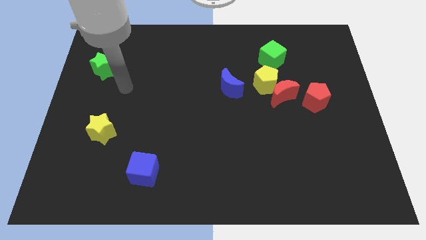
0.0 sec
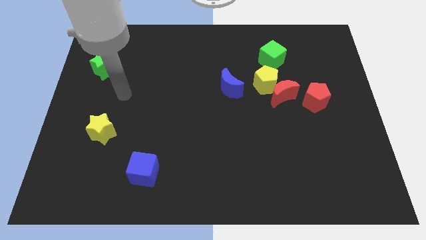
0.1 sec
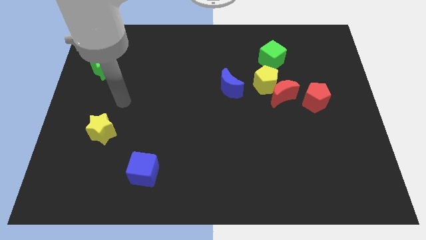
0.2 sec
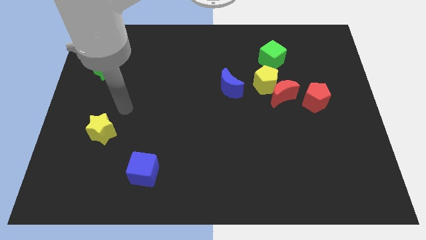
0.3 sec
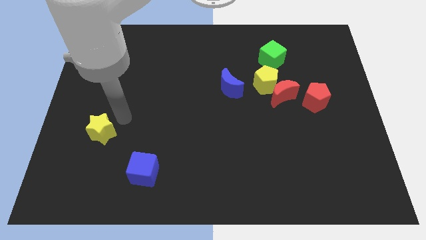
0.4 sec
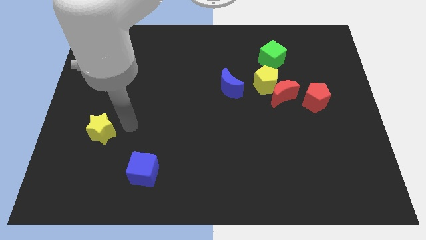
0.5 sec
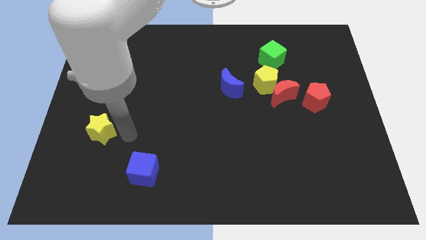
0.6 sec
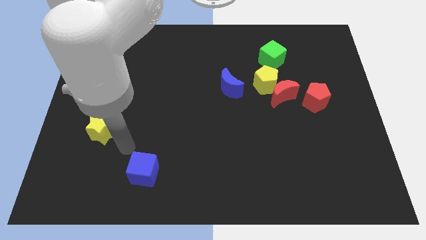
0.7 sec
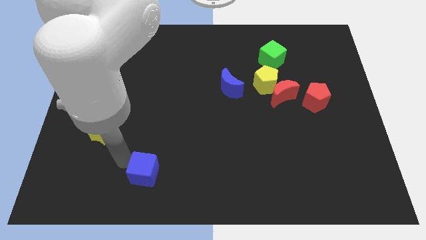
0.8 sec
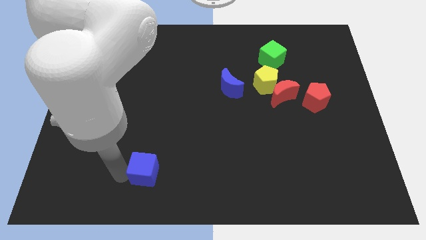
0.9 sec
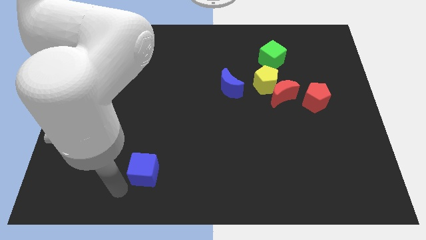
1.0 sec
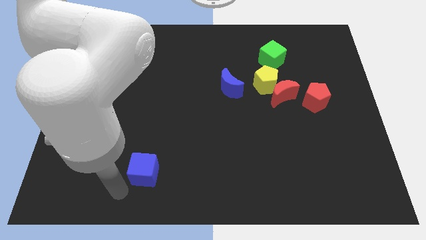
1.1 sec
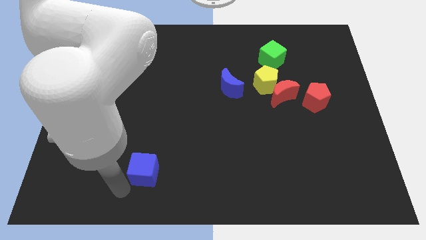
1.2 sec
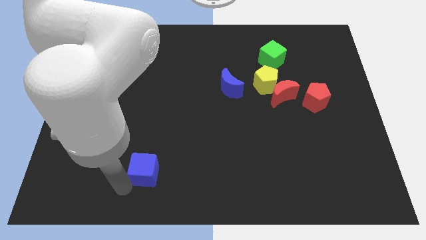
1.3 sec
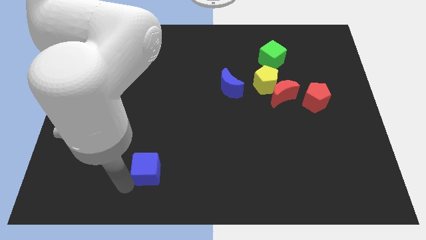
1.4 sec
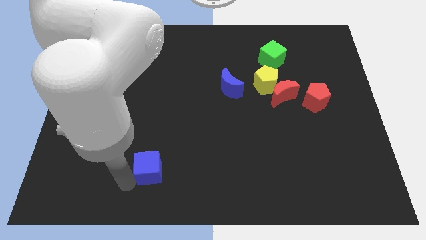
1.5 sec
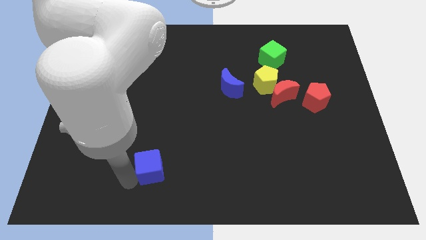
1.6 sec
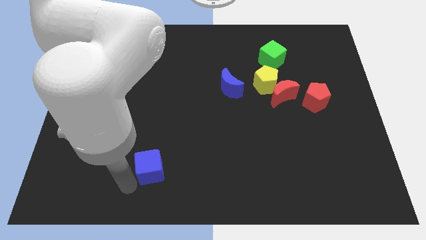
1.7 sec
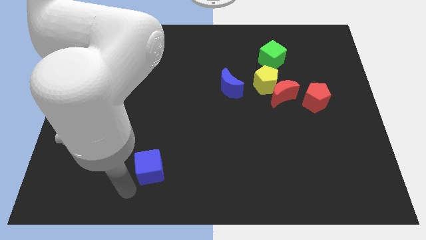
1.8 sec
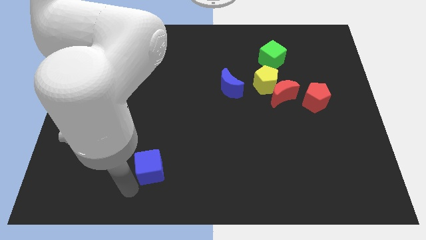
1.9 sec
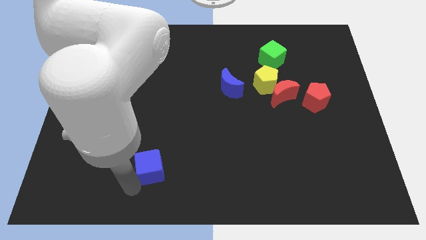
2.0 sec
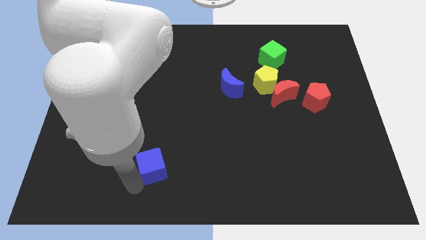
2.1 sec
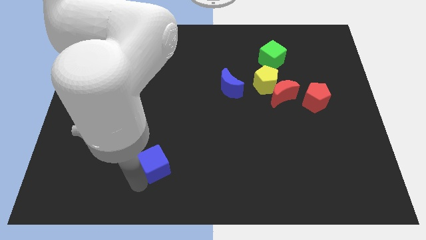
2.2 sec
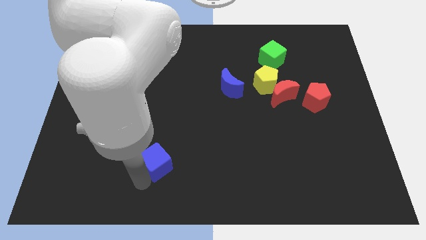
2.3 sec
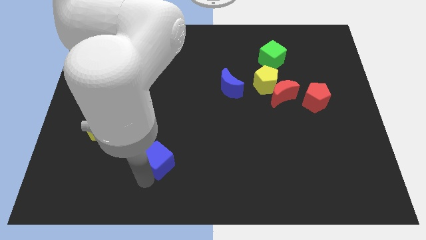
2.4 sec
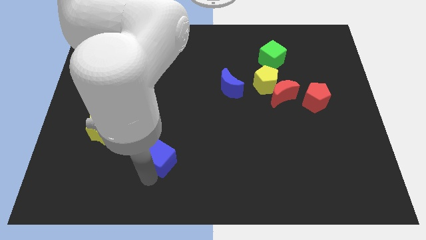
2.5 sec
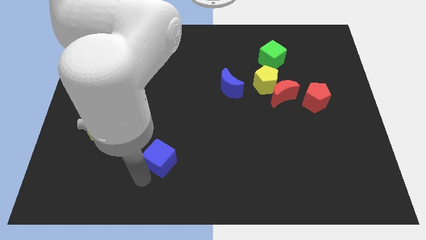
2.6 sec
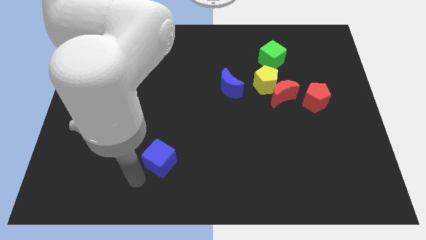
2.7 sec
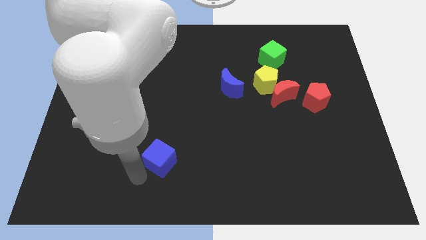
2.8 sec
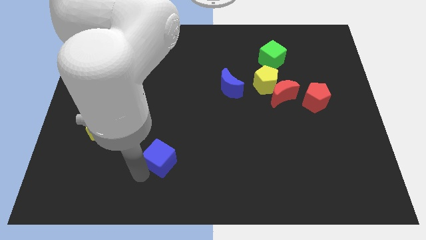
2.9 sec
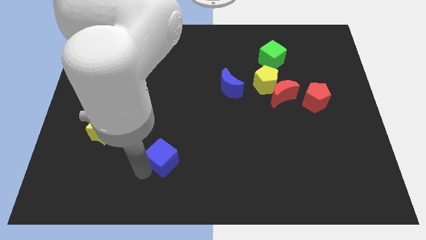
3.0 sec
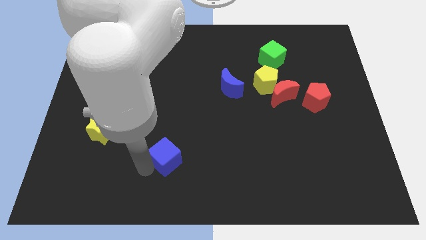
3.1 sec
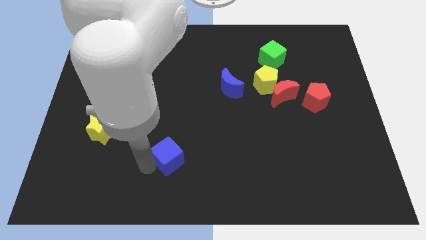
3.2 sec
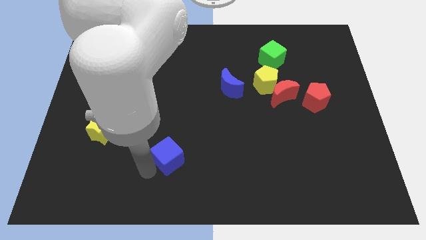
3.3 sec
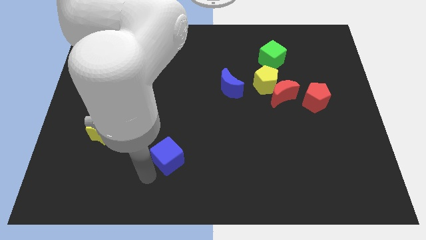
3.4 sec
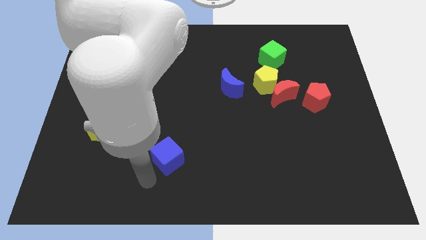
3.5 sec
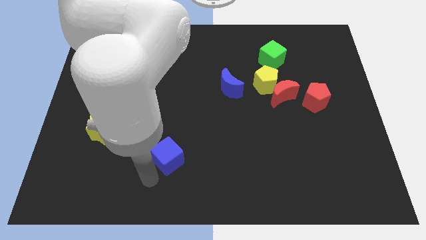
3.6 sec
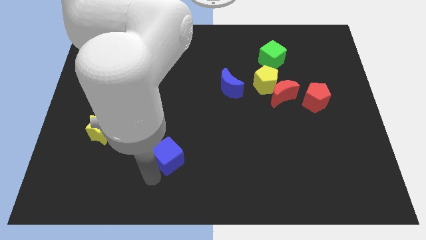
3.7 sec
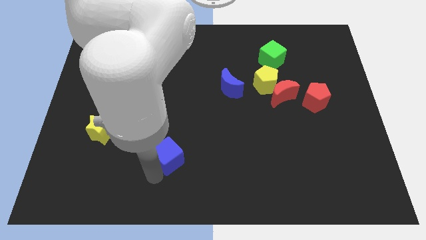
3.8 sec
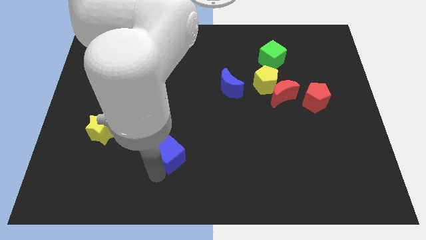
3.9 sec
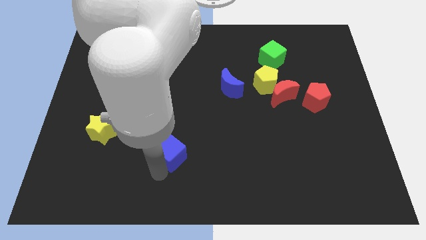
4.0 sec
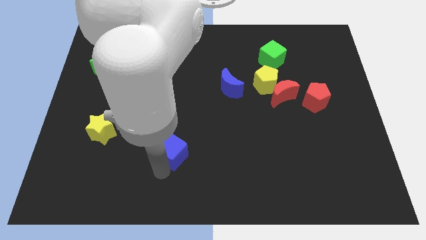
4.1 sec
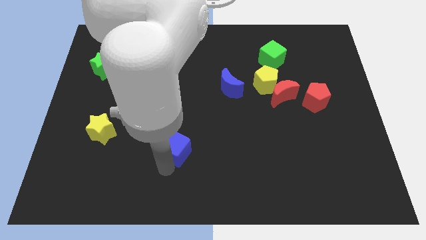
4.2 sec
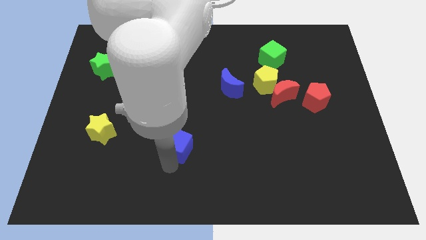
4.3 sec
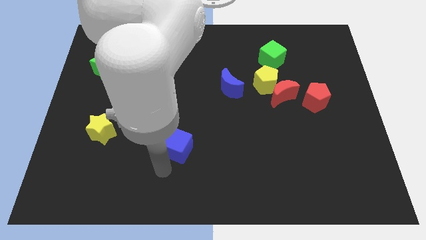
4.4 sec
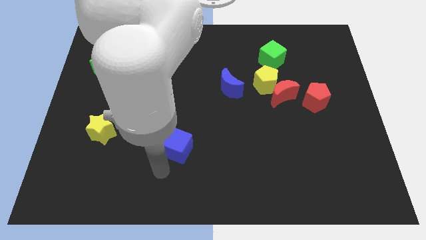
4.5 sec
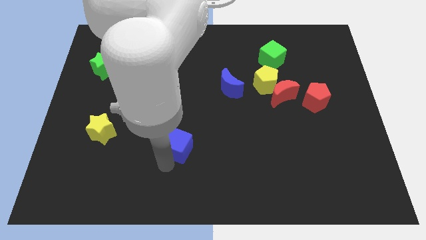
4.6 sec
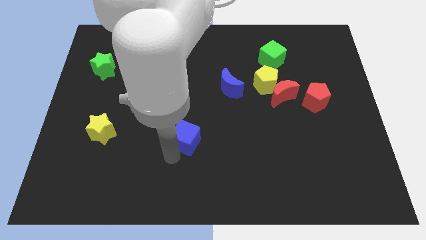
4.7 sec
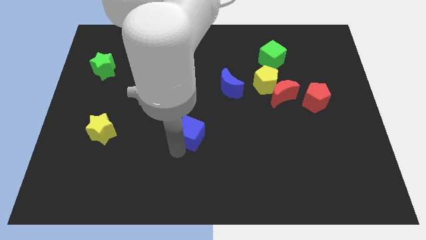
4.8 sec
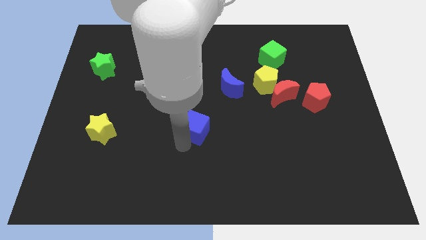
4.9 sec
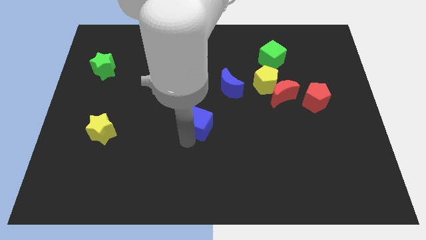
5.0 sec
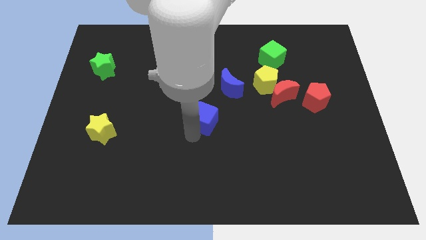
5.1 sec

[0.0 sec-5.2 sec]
move the blue cube to the bottom left of the blue moon

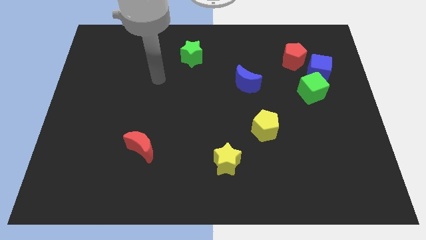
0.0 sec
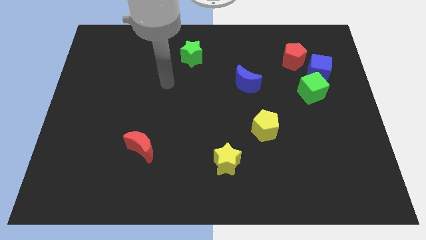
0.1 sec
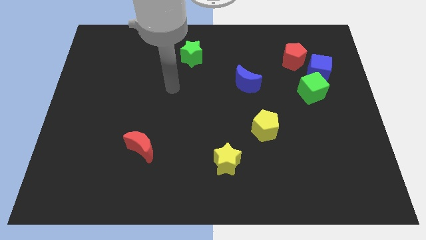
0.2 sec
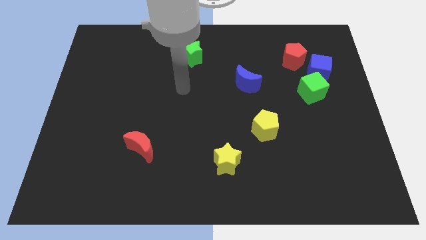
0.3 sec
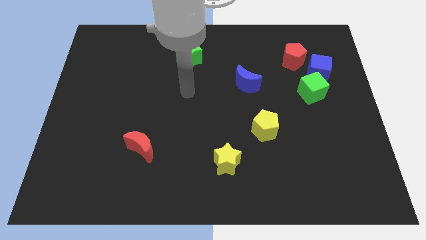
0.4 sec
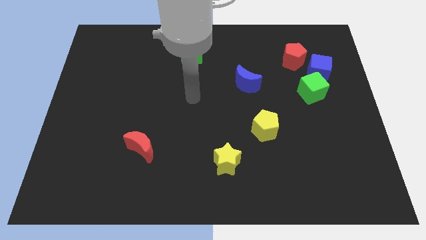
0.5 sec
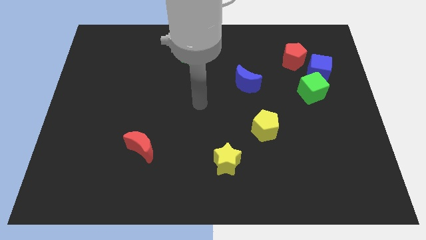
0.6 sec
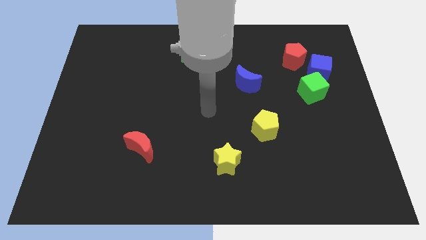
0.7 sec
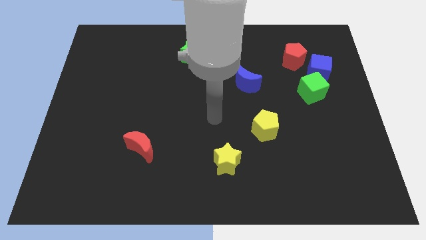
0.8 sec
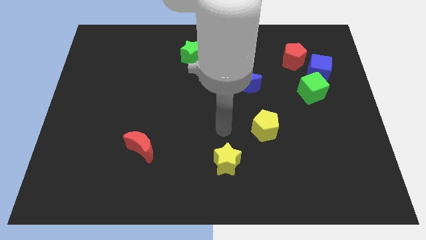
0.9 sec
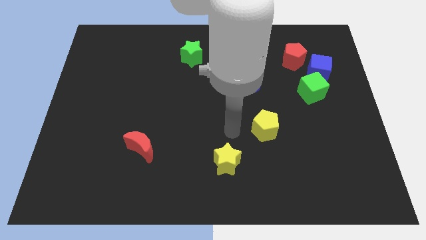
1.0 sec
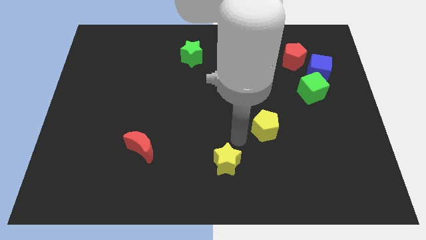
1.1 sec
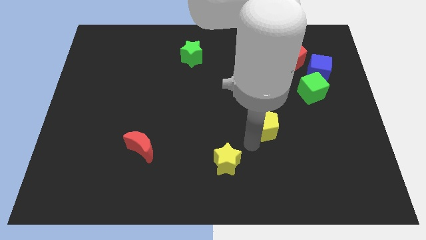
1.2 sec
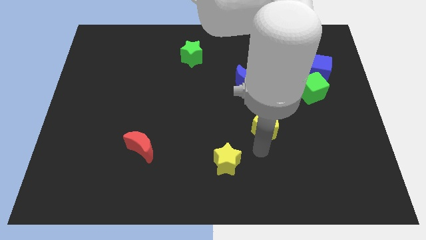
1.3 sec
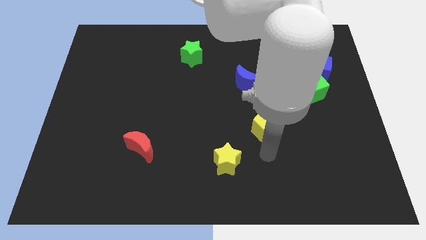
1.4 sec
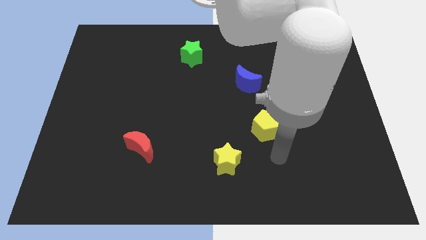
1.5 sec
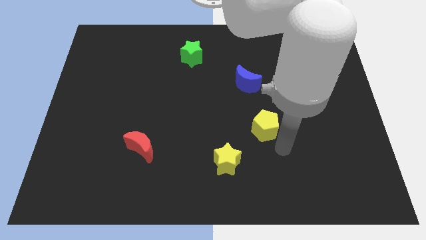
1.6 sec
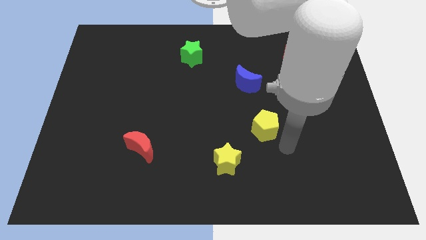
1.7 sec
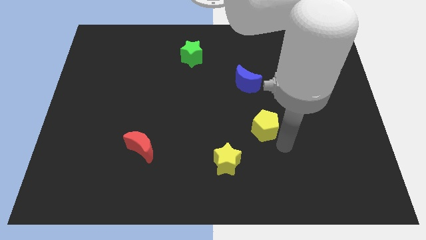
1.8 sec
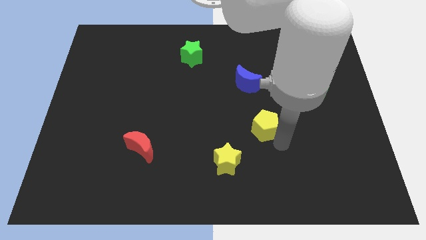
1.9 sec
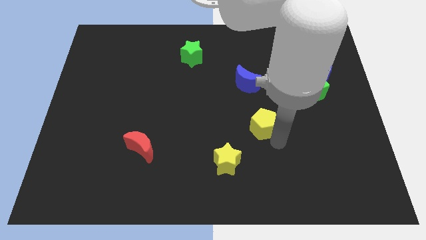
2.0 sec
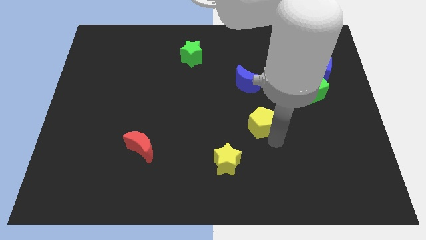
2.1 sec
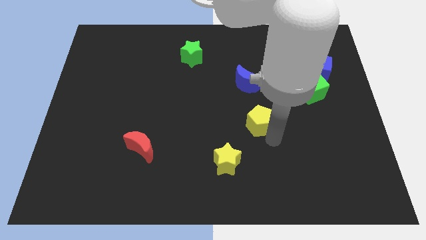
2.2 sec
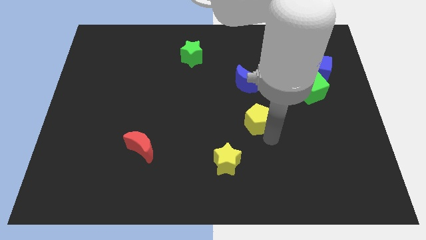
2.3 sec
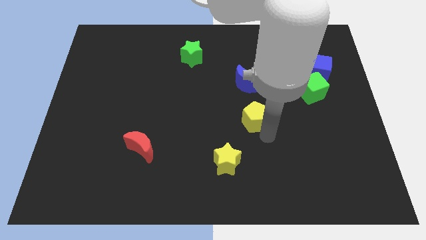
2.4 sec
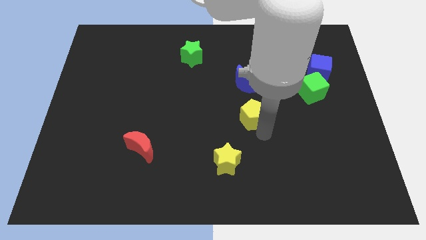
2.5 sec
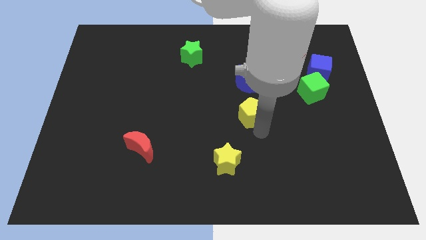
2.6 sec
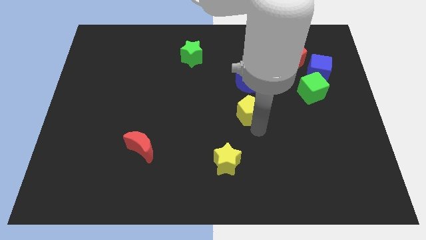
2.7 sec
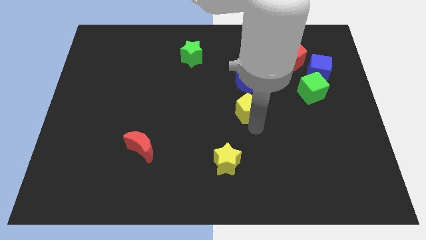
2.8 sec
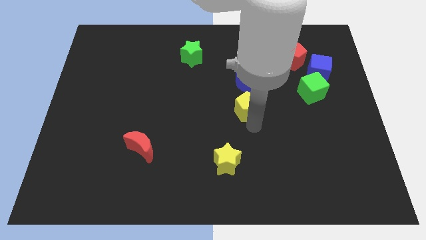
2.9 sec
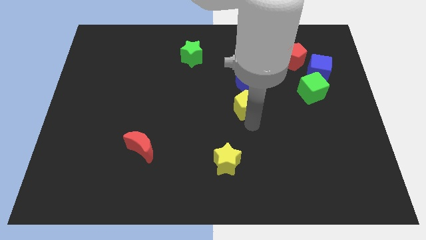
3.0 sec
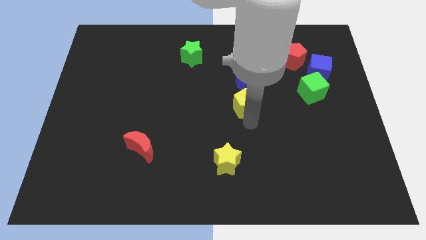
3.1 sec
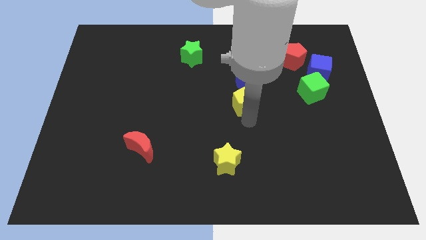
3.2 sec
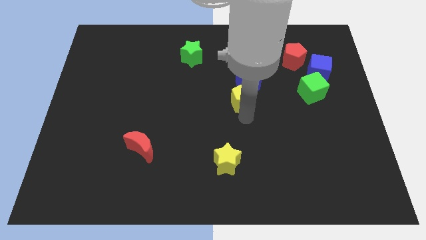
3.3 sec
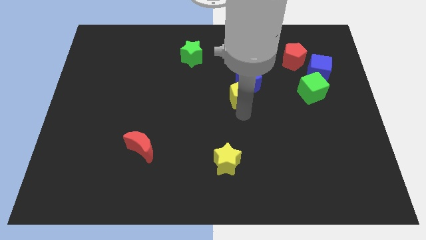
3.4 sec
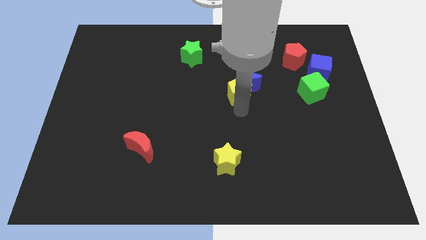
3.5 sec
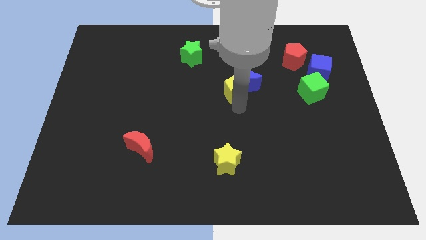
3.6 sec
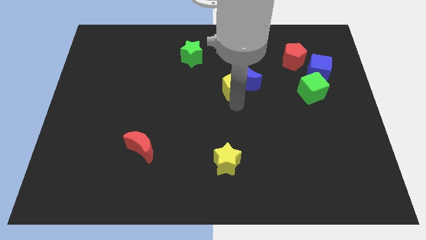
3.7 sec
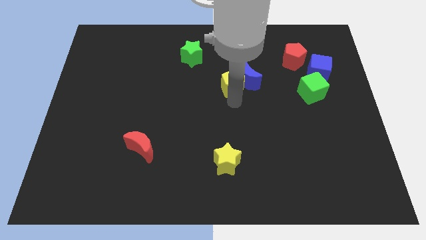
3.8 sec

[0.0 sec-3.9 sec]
slide the yellow pentagon to the top left of the blue moon
